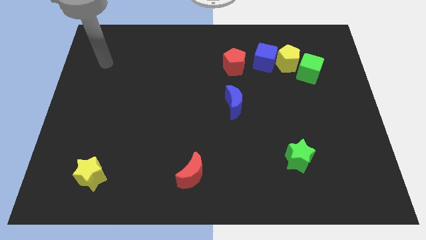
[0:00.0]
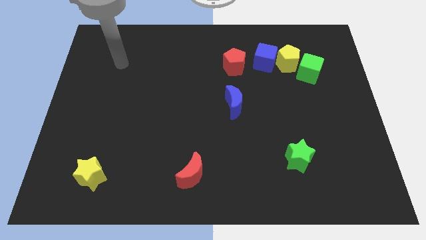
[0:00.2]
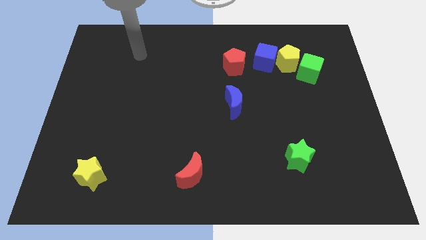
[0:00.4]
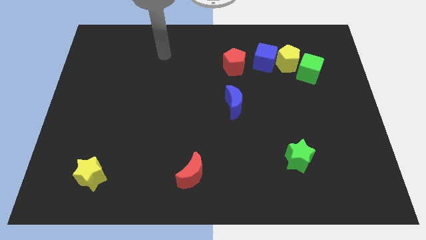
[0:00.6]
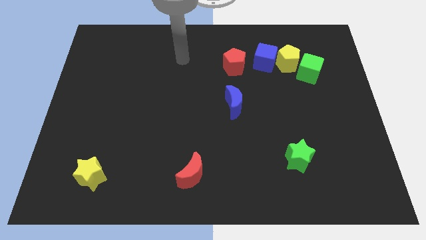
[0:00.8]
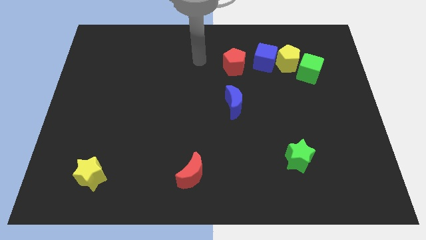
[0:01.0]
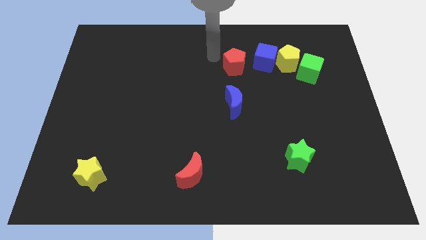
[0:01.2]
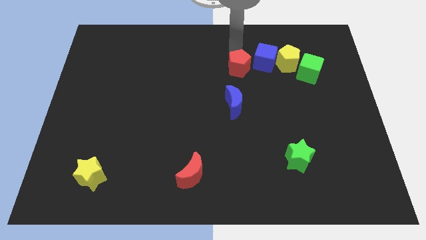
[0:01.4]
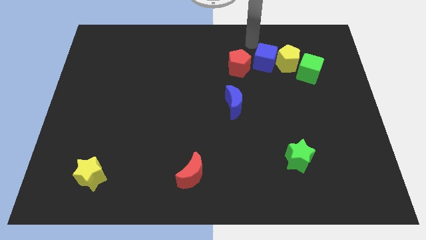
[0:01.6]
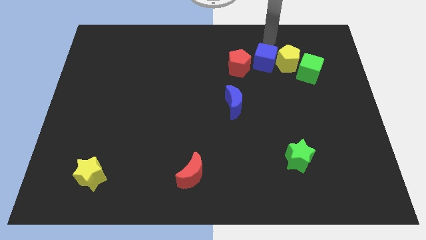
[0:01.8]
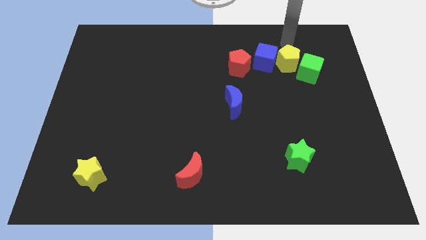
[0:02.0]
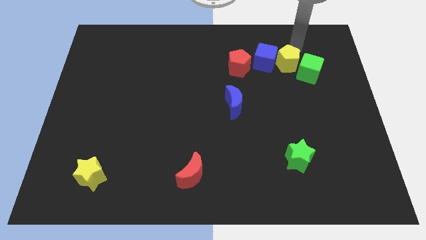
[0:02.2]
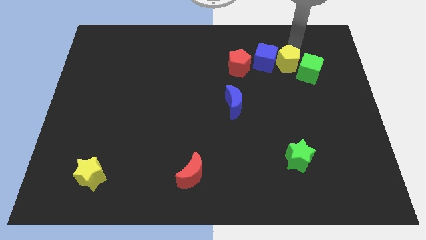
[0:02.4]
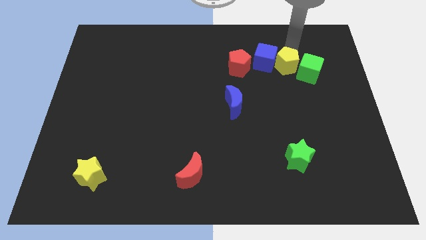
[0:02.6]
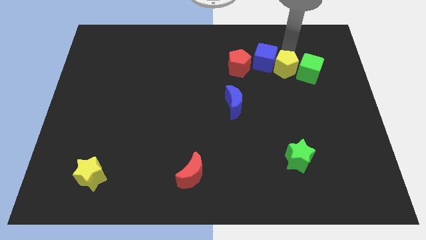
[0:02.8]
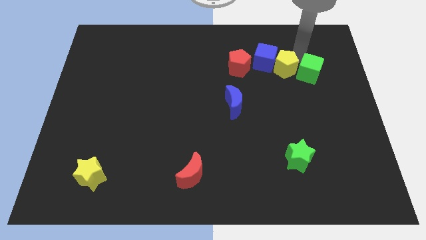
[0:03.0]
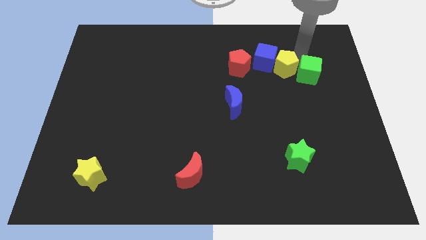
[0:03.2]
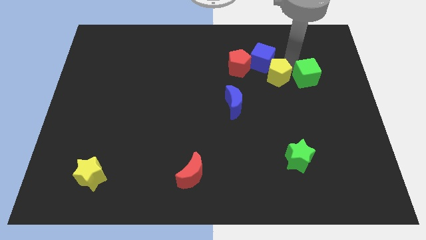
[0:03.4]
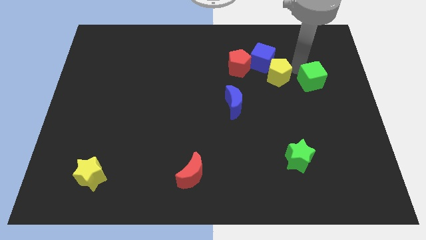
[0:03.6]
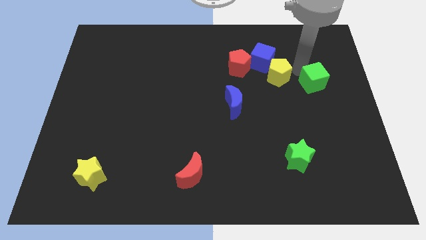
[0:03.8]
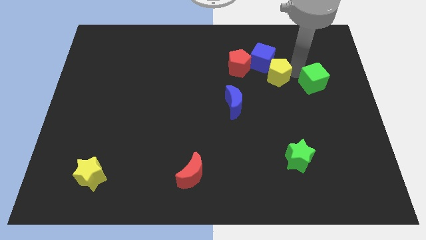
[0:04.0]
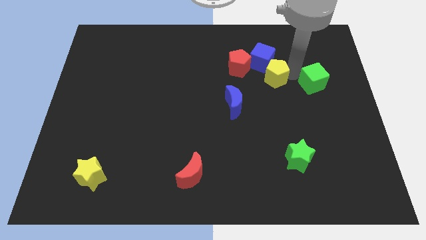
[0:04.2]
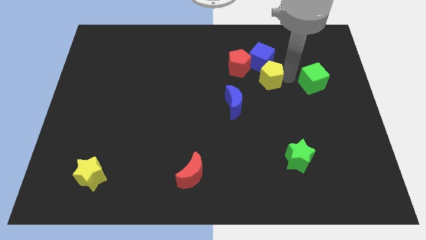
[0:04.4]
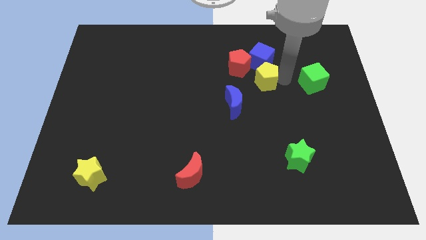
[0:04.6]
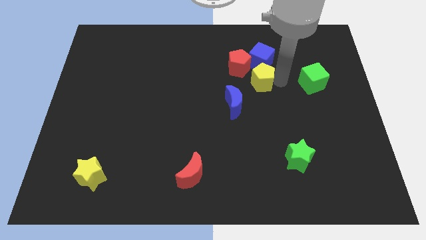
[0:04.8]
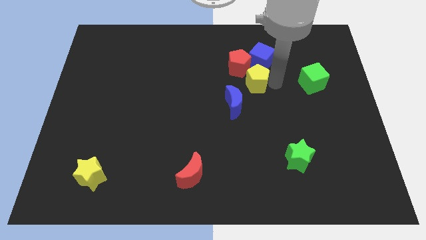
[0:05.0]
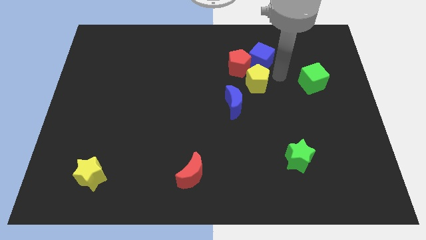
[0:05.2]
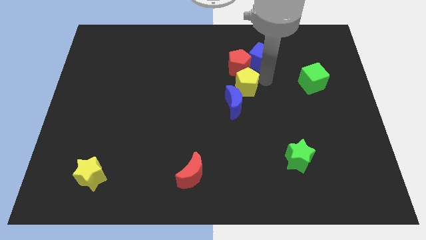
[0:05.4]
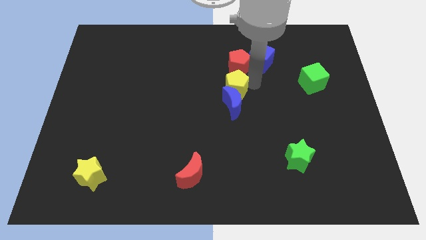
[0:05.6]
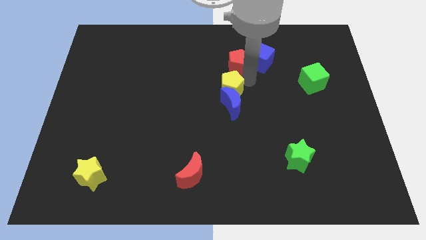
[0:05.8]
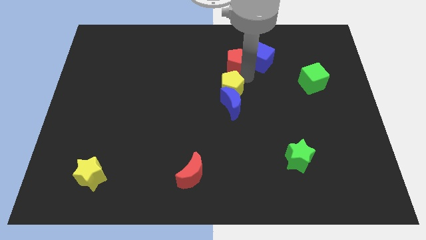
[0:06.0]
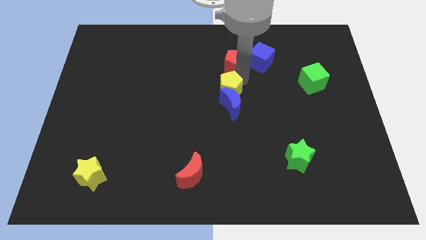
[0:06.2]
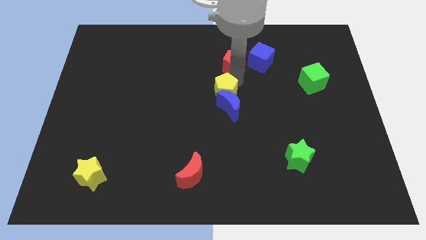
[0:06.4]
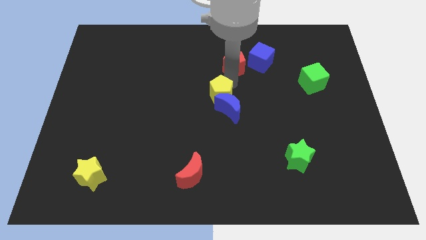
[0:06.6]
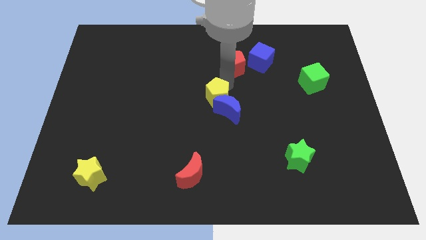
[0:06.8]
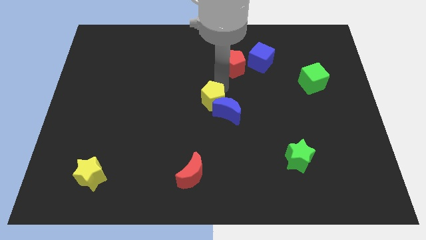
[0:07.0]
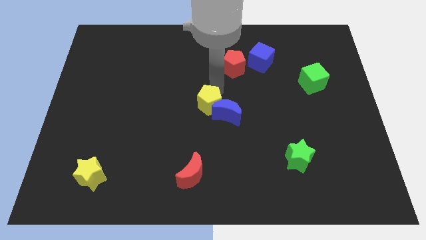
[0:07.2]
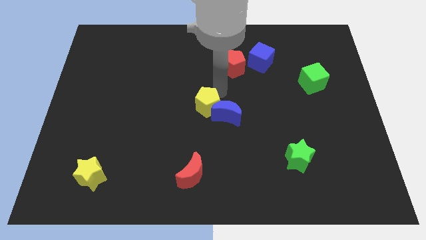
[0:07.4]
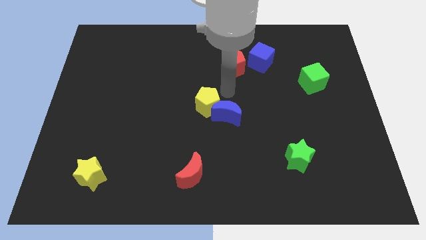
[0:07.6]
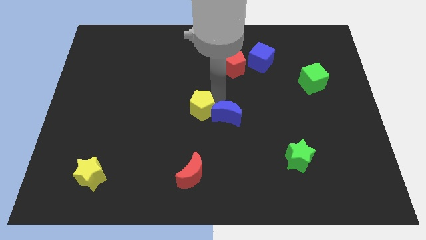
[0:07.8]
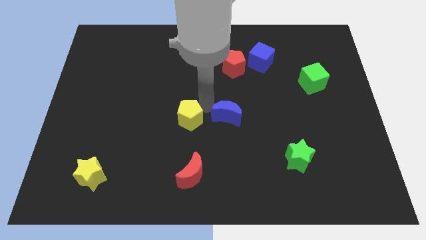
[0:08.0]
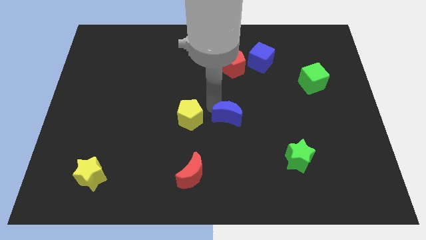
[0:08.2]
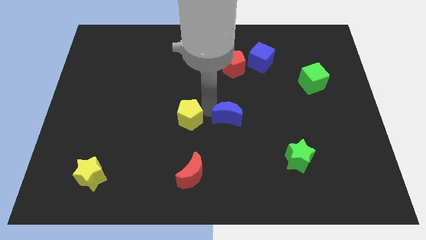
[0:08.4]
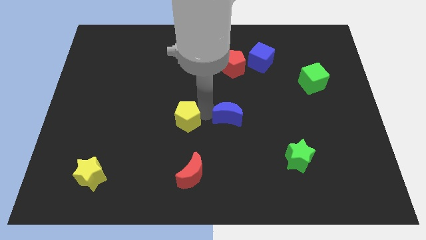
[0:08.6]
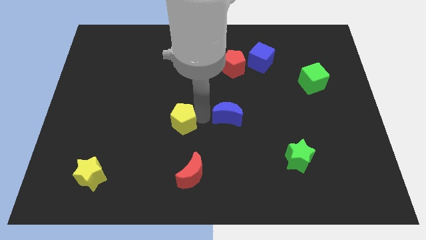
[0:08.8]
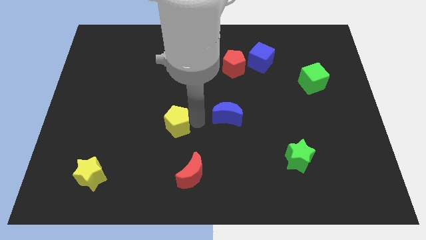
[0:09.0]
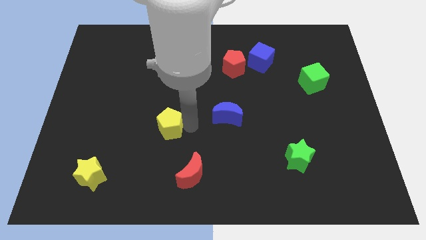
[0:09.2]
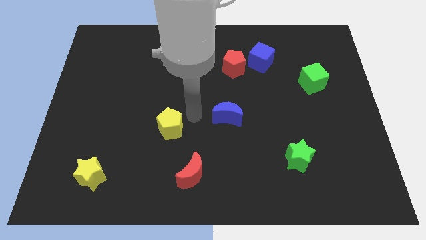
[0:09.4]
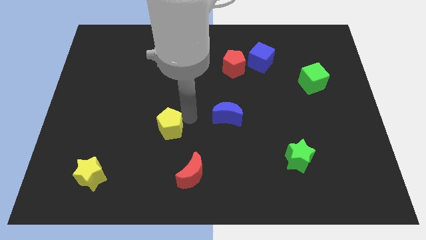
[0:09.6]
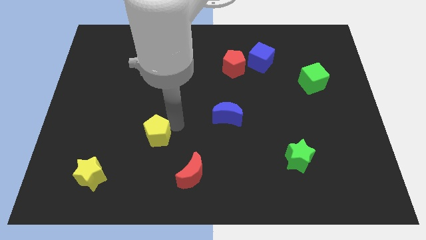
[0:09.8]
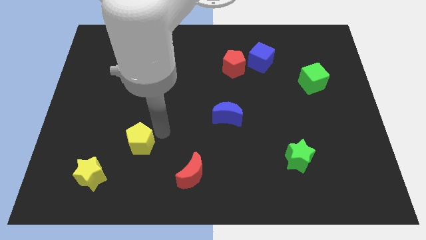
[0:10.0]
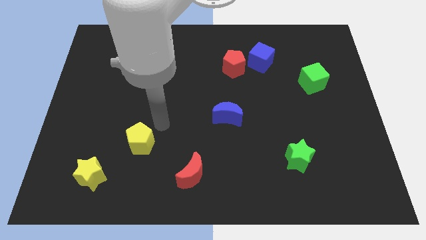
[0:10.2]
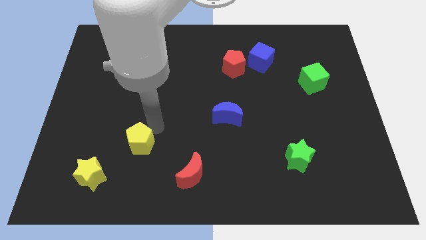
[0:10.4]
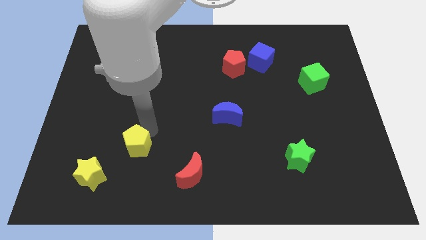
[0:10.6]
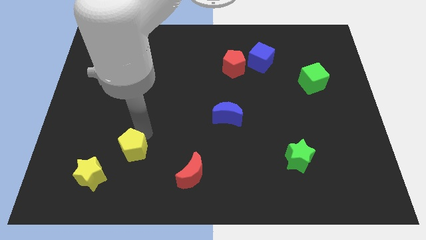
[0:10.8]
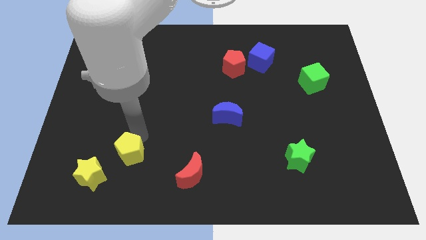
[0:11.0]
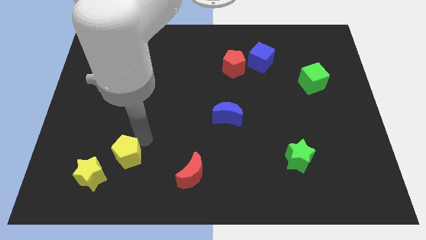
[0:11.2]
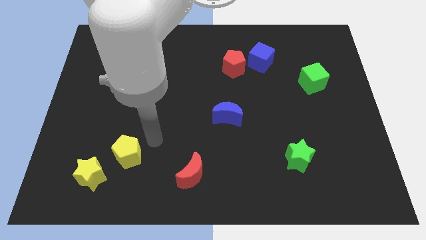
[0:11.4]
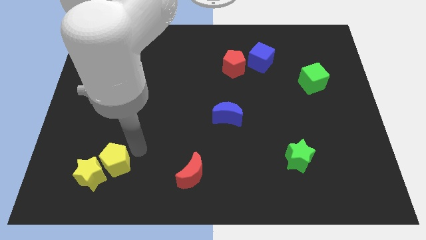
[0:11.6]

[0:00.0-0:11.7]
push the yellow pentagon close to the yellow star
